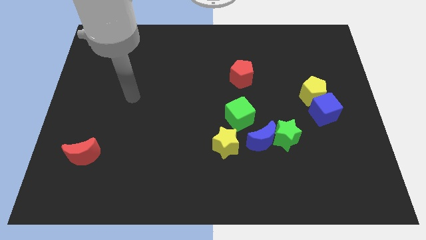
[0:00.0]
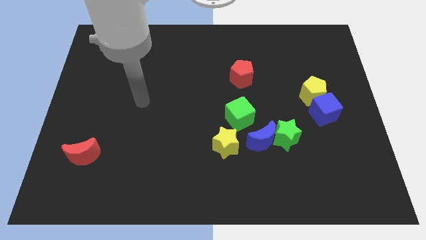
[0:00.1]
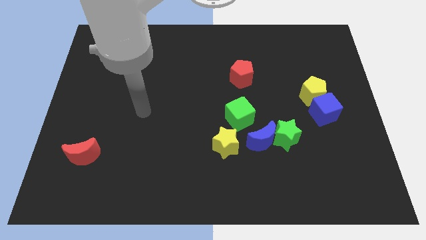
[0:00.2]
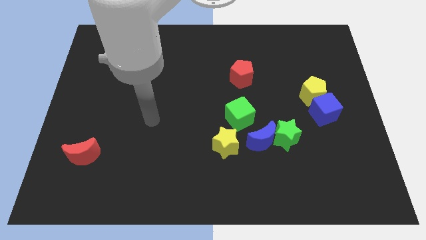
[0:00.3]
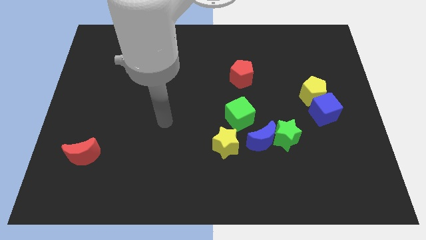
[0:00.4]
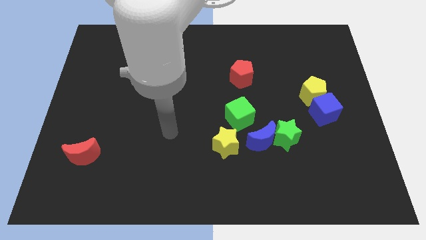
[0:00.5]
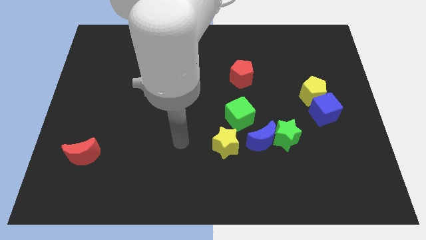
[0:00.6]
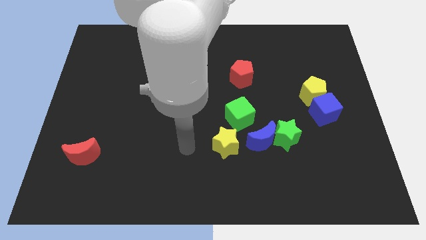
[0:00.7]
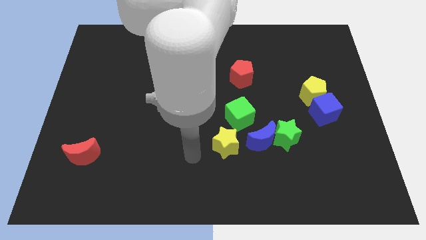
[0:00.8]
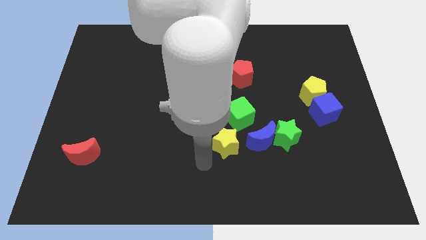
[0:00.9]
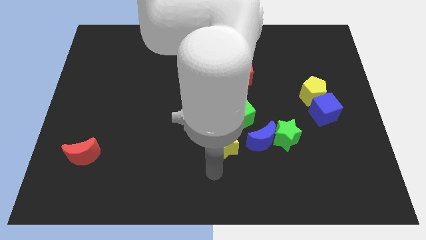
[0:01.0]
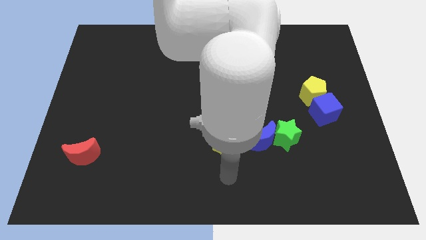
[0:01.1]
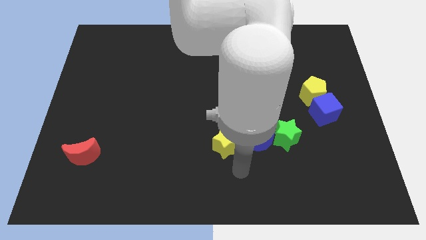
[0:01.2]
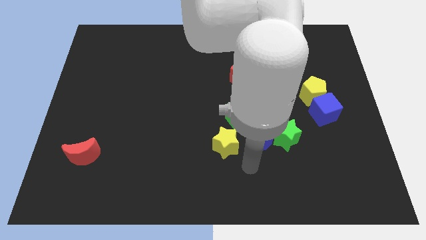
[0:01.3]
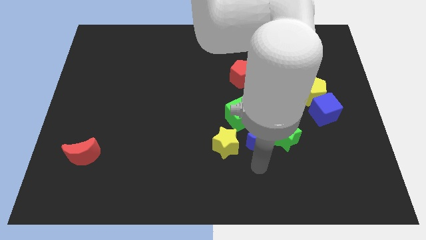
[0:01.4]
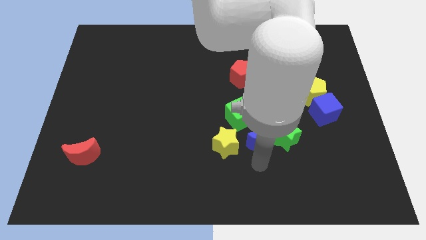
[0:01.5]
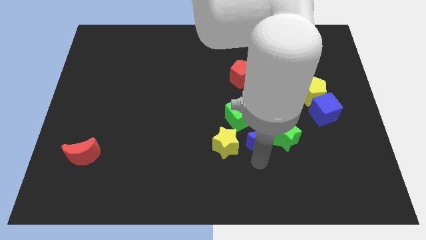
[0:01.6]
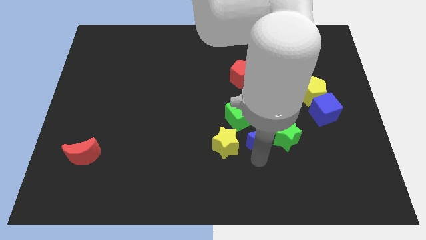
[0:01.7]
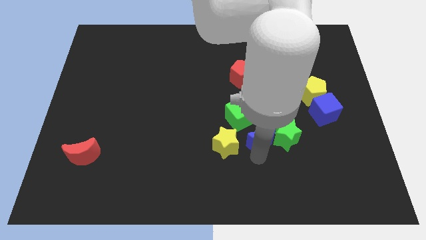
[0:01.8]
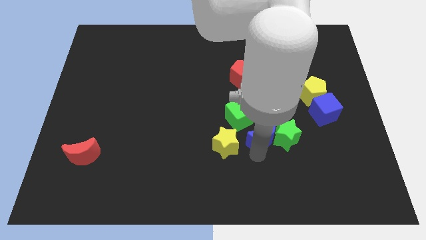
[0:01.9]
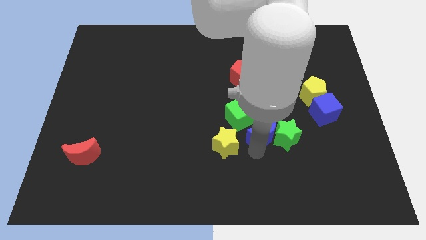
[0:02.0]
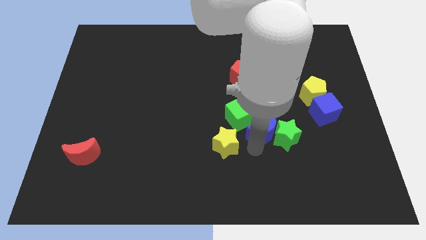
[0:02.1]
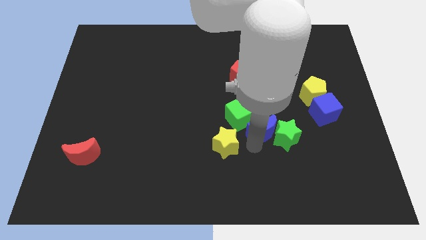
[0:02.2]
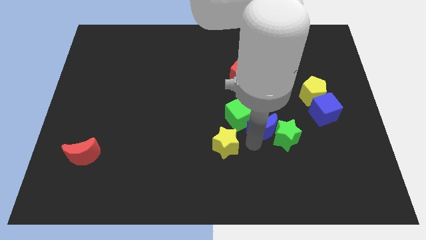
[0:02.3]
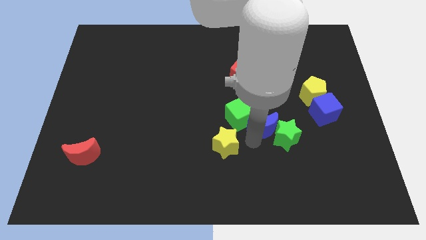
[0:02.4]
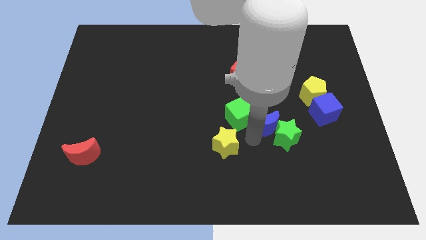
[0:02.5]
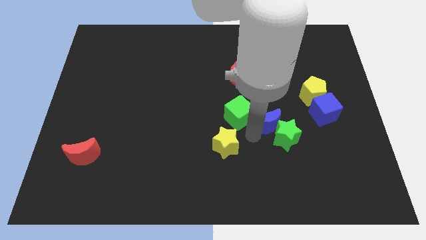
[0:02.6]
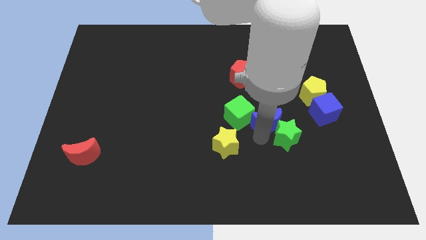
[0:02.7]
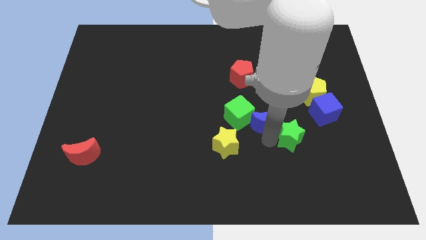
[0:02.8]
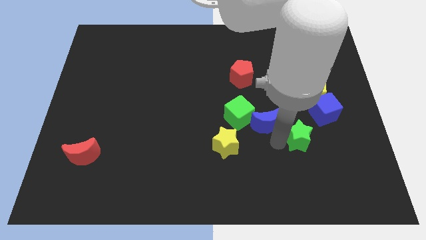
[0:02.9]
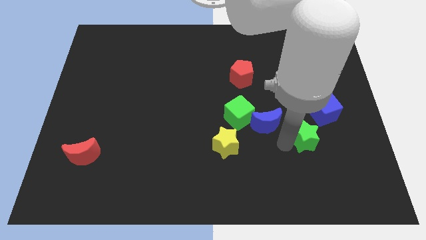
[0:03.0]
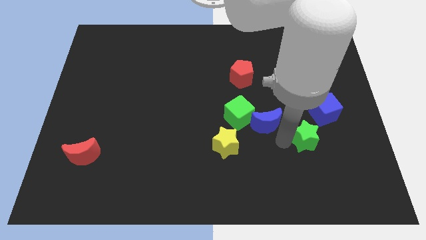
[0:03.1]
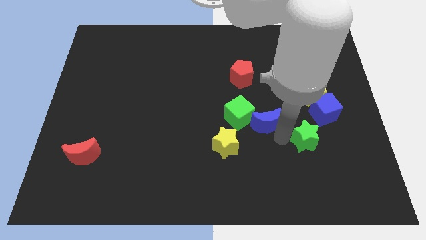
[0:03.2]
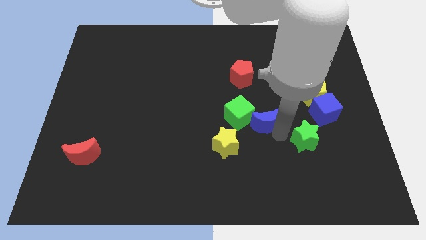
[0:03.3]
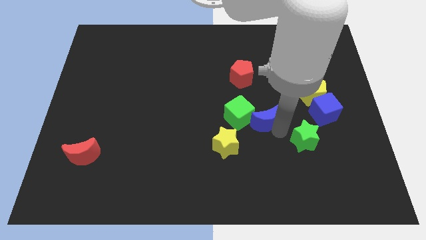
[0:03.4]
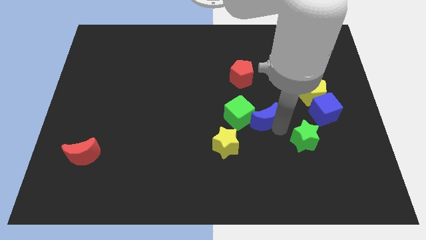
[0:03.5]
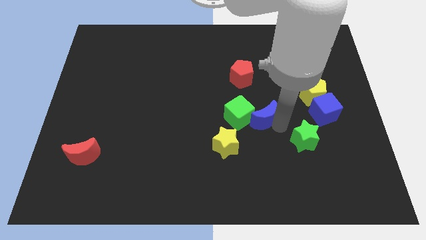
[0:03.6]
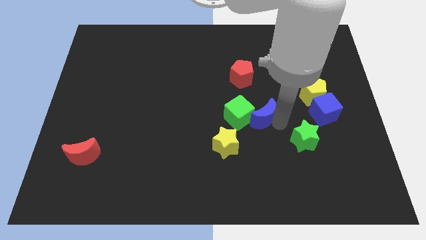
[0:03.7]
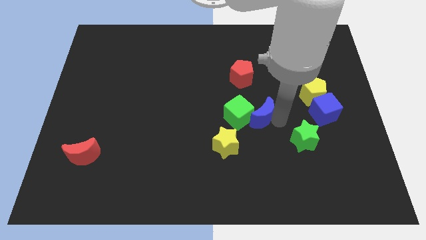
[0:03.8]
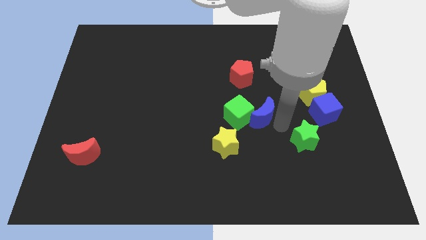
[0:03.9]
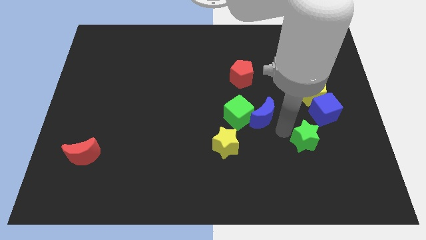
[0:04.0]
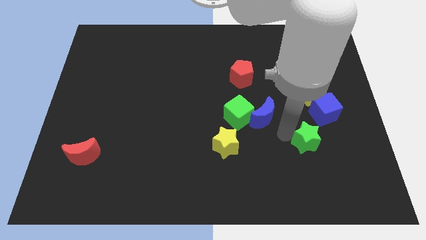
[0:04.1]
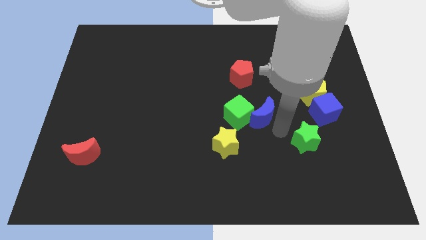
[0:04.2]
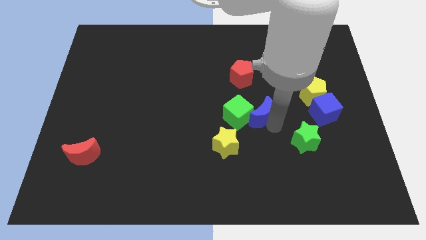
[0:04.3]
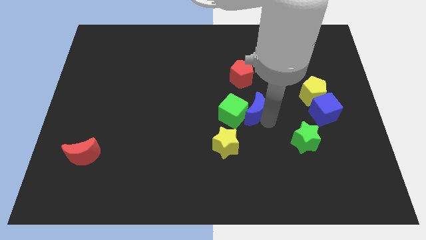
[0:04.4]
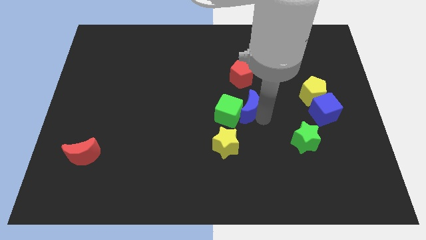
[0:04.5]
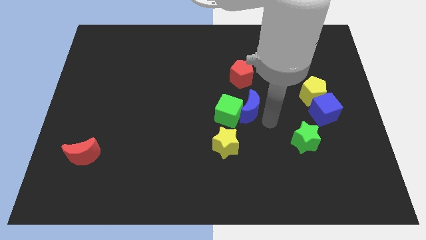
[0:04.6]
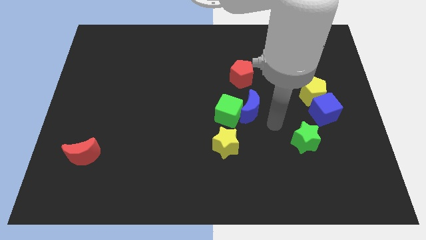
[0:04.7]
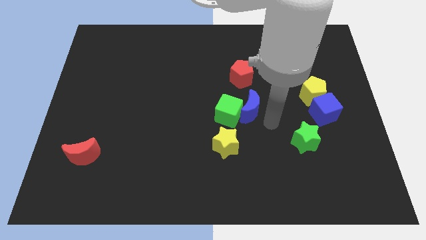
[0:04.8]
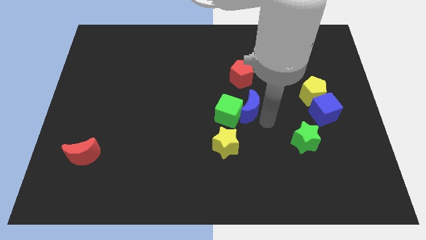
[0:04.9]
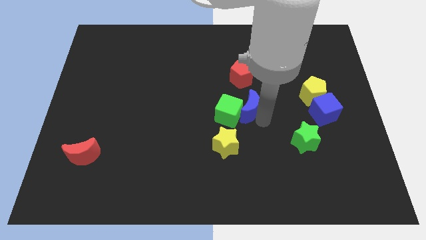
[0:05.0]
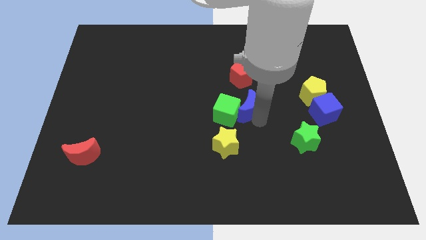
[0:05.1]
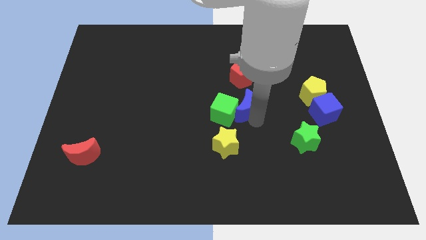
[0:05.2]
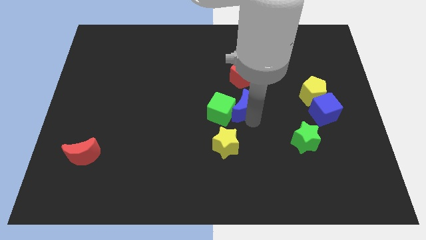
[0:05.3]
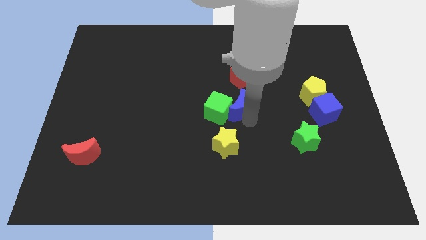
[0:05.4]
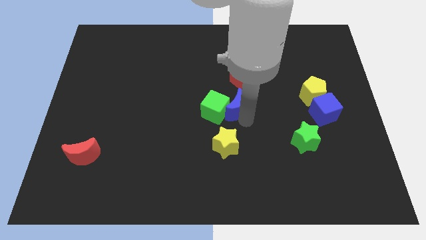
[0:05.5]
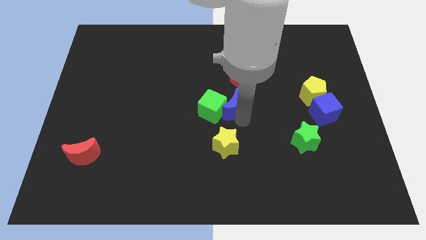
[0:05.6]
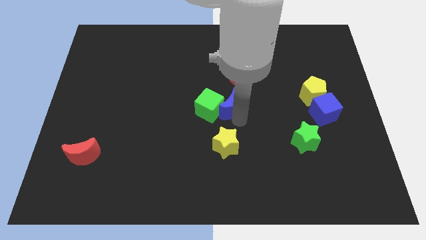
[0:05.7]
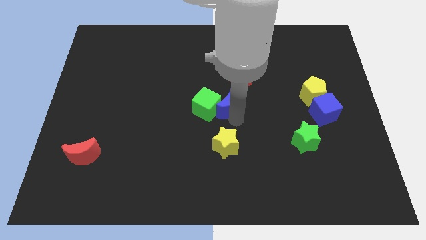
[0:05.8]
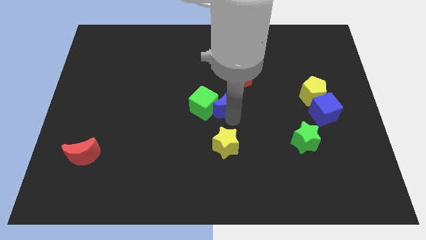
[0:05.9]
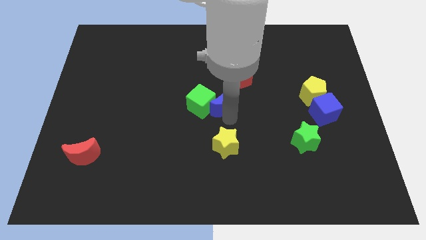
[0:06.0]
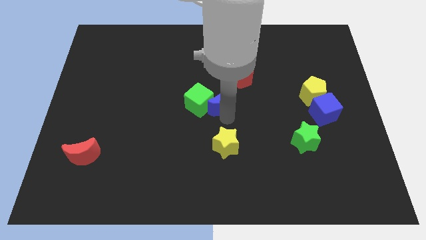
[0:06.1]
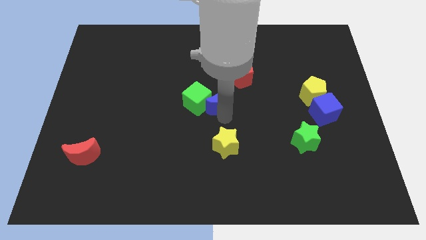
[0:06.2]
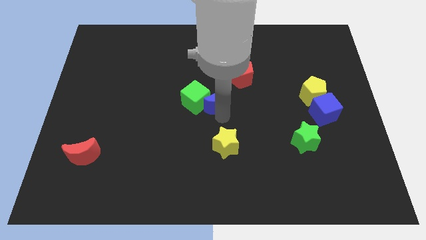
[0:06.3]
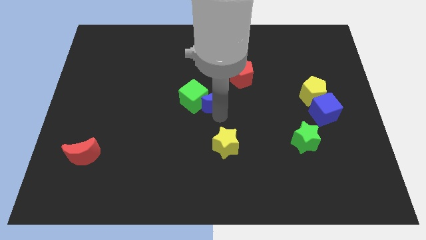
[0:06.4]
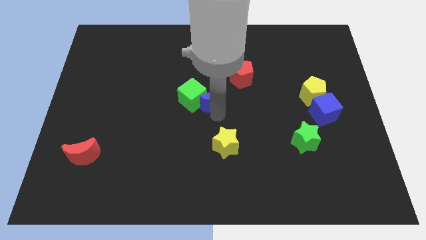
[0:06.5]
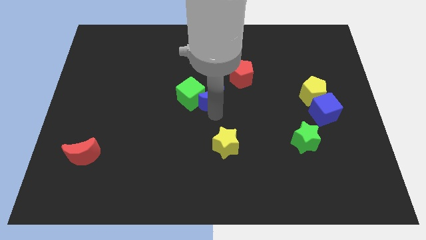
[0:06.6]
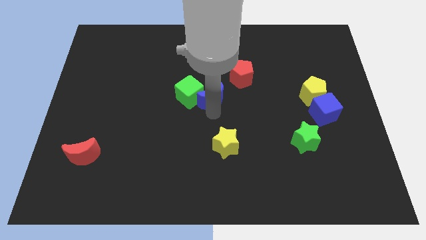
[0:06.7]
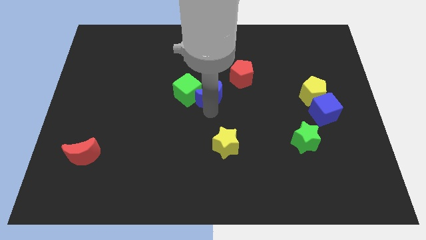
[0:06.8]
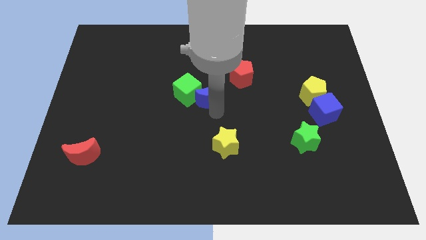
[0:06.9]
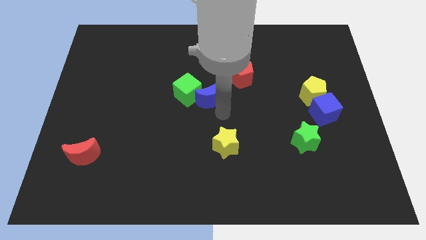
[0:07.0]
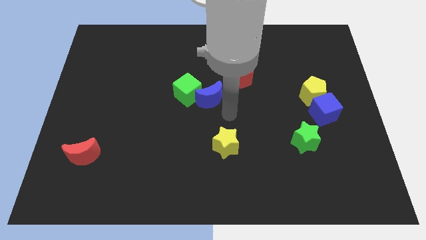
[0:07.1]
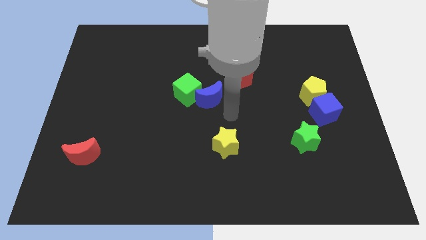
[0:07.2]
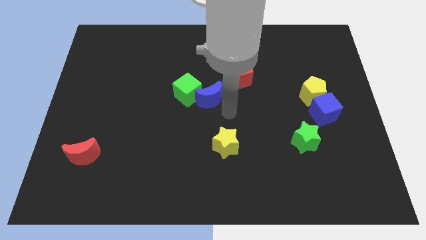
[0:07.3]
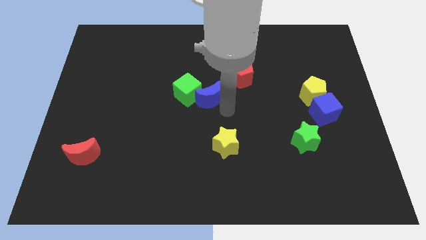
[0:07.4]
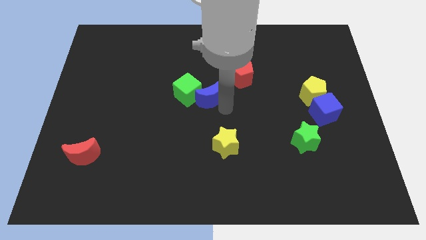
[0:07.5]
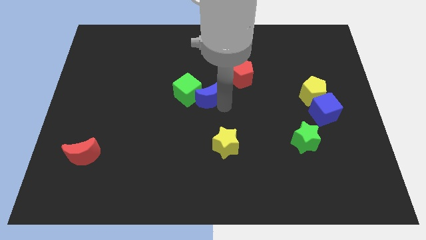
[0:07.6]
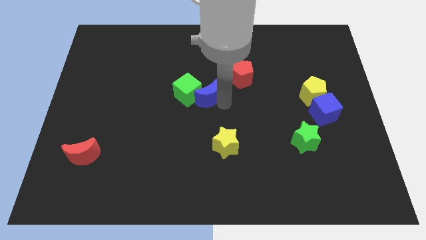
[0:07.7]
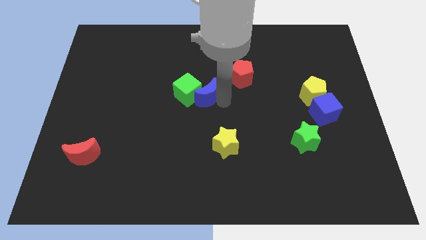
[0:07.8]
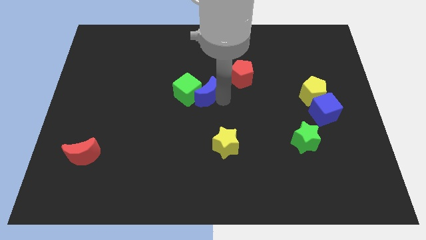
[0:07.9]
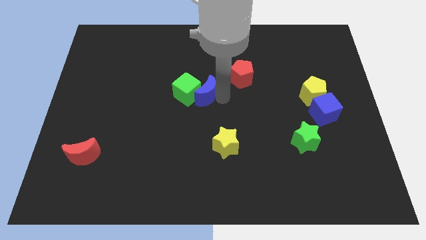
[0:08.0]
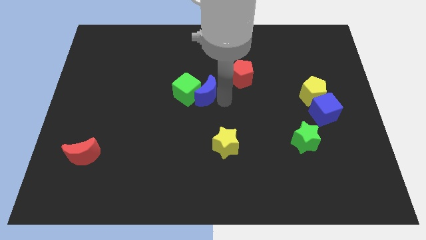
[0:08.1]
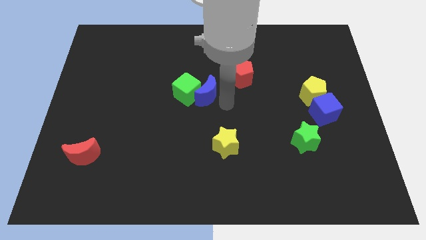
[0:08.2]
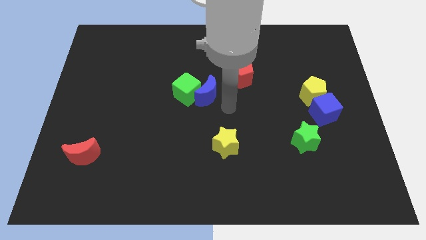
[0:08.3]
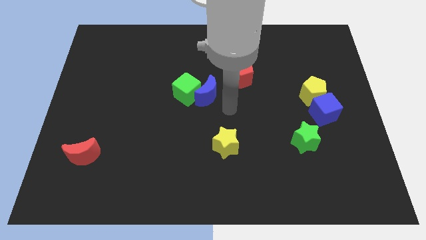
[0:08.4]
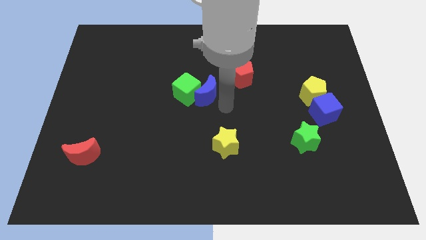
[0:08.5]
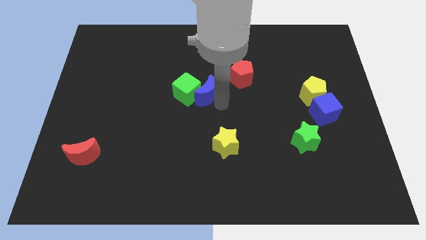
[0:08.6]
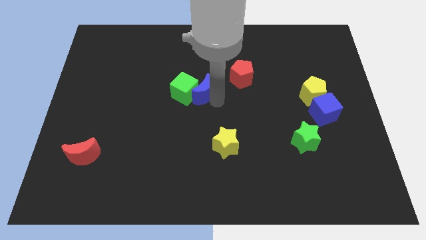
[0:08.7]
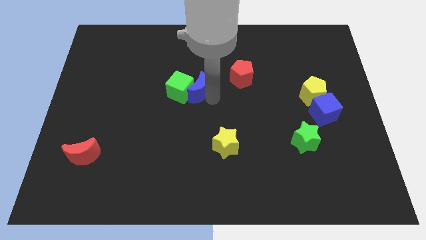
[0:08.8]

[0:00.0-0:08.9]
slide the blue moon diagonally upwards and to the left
